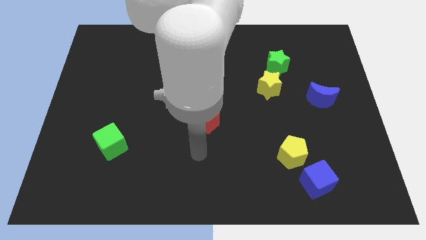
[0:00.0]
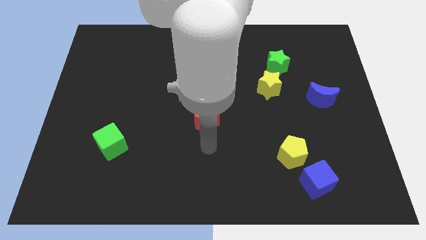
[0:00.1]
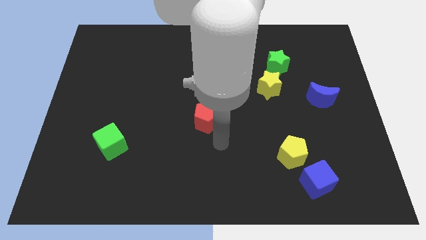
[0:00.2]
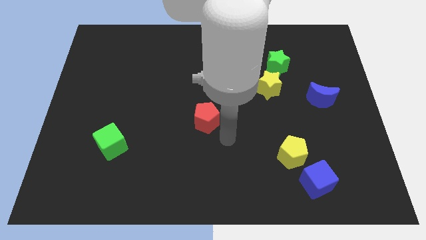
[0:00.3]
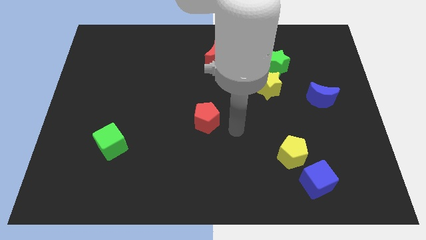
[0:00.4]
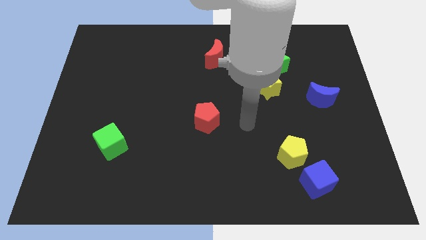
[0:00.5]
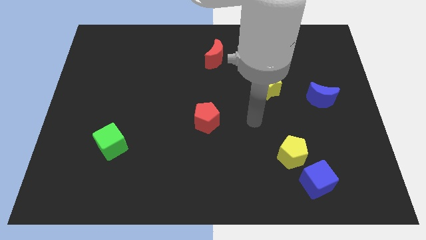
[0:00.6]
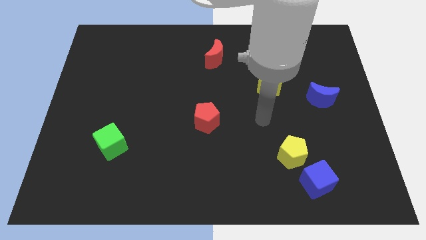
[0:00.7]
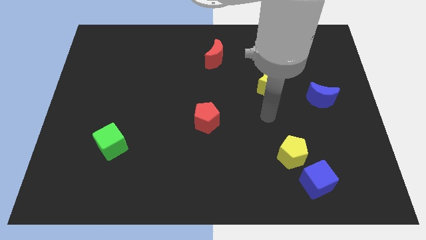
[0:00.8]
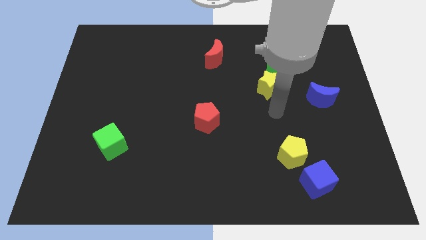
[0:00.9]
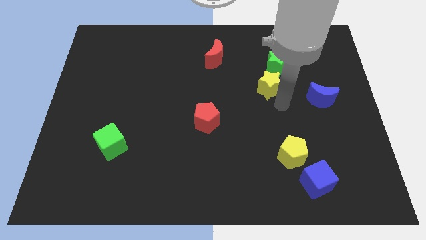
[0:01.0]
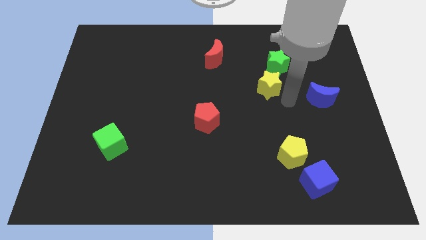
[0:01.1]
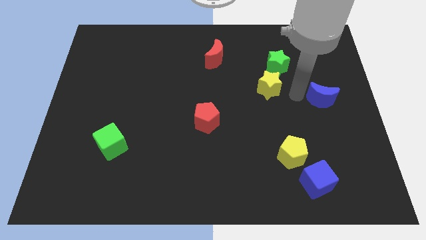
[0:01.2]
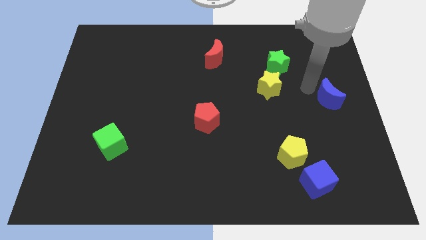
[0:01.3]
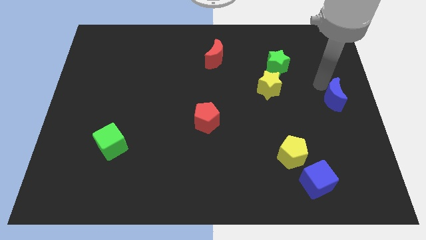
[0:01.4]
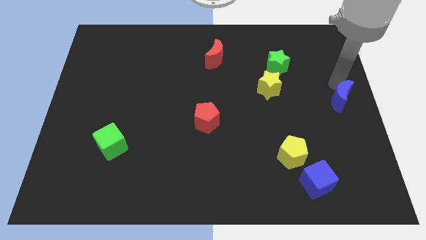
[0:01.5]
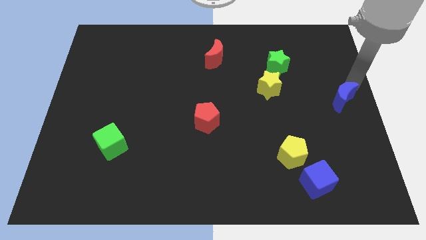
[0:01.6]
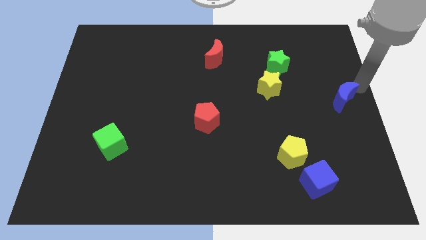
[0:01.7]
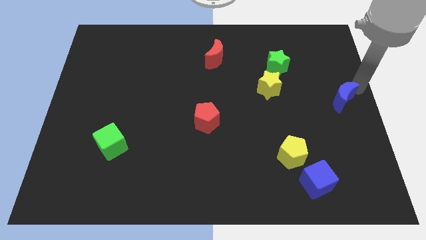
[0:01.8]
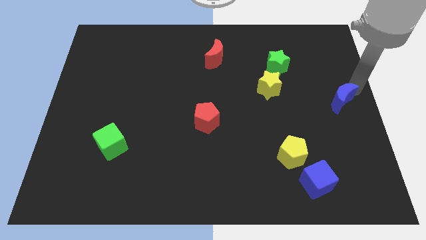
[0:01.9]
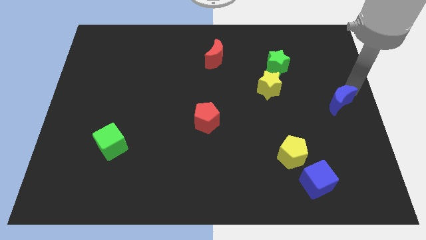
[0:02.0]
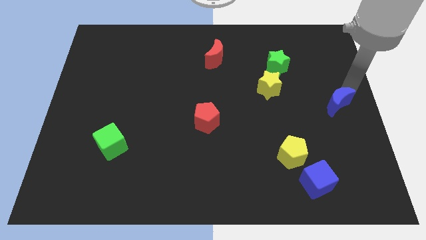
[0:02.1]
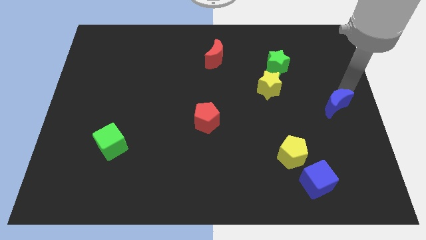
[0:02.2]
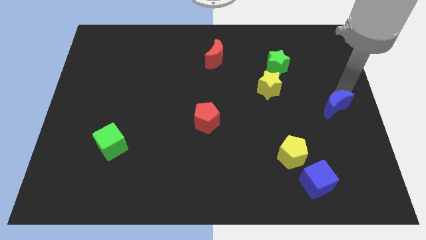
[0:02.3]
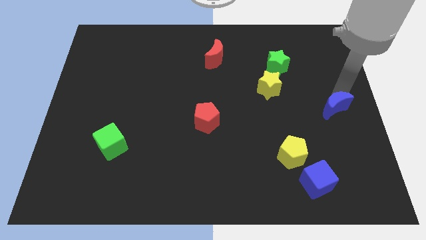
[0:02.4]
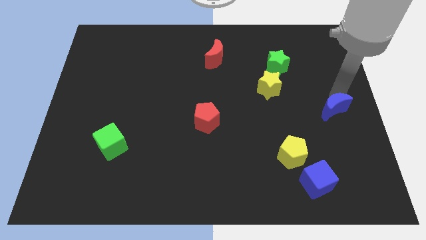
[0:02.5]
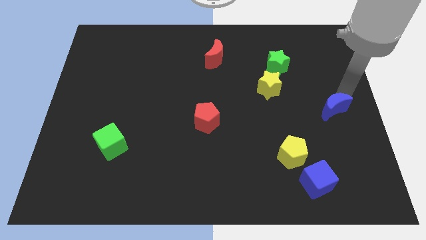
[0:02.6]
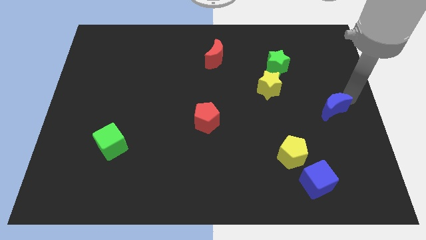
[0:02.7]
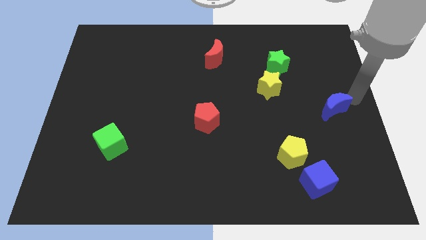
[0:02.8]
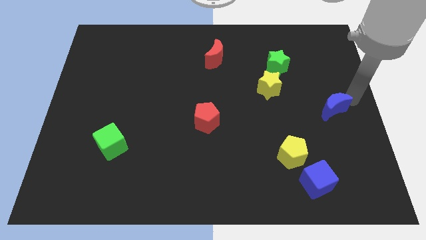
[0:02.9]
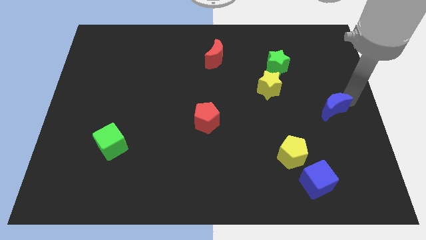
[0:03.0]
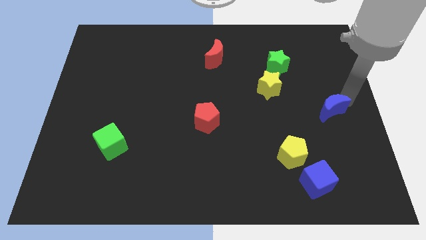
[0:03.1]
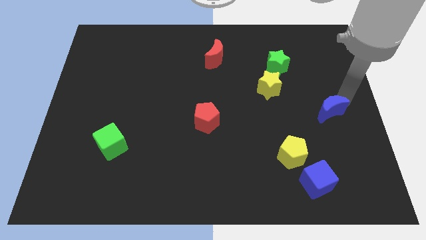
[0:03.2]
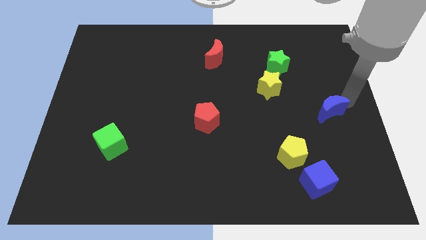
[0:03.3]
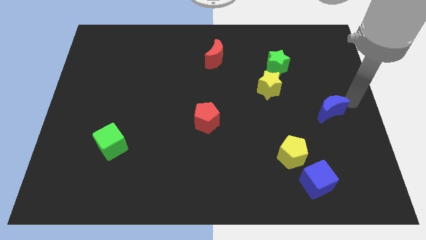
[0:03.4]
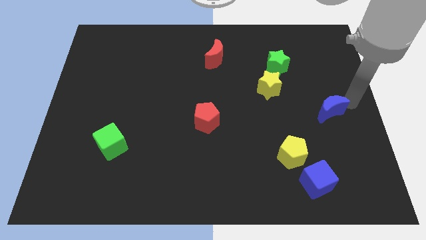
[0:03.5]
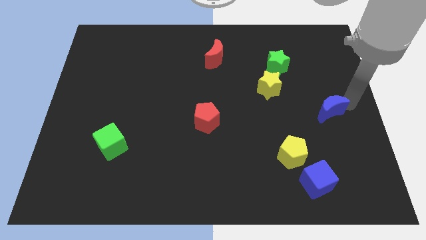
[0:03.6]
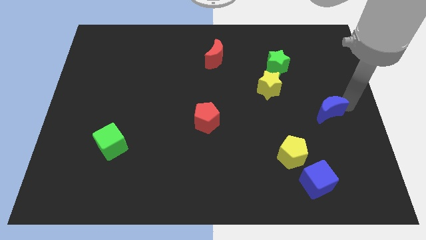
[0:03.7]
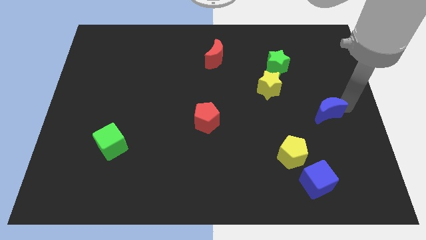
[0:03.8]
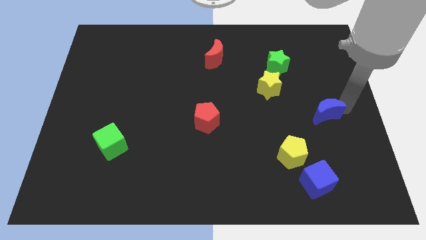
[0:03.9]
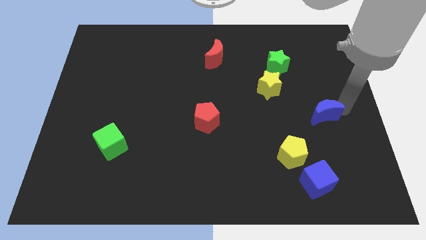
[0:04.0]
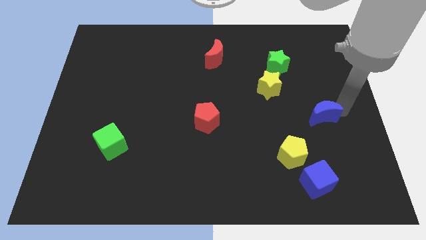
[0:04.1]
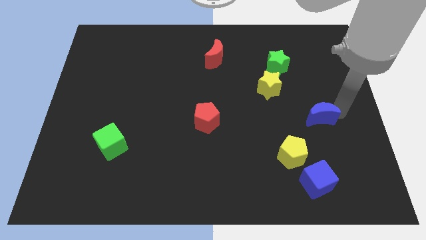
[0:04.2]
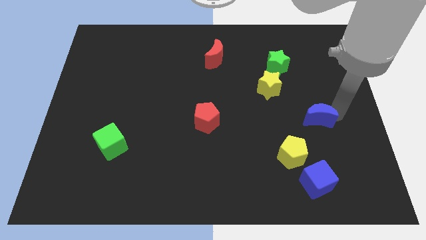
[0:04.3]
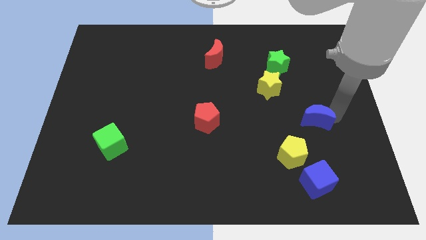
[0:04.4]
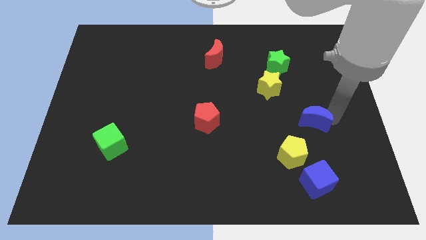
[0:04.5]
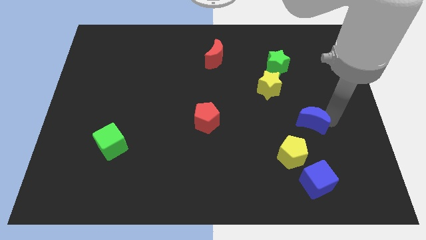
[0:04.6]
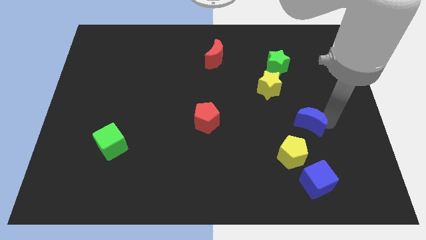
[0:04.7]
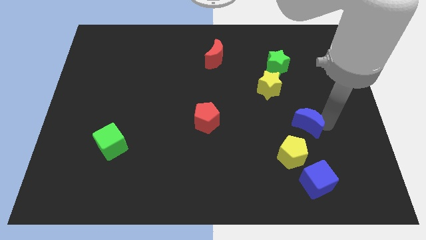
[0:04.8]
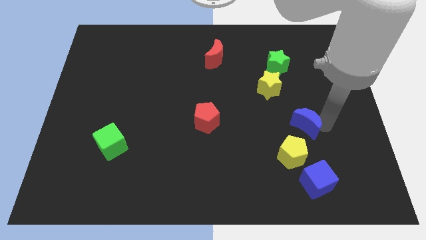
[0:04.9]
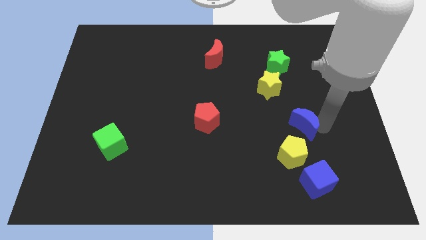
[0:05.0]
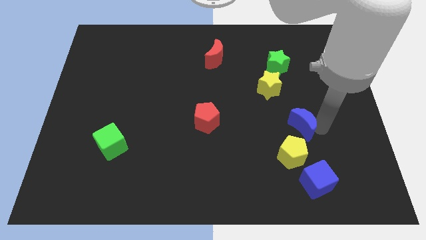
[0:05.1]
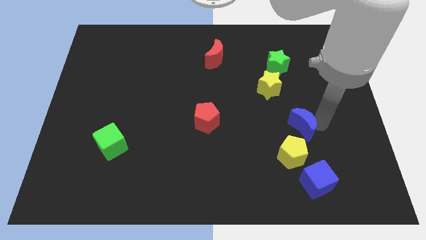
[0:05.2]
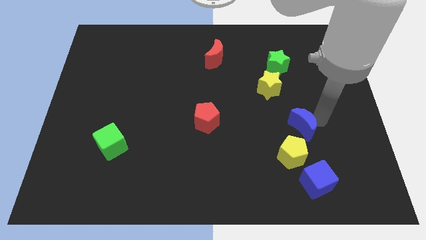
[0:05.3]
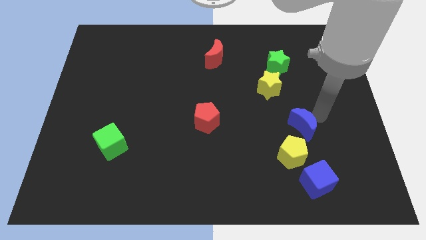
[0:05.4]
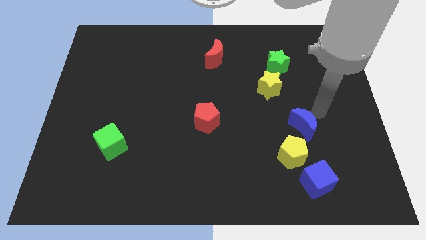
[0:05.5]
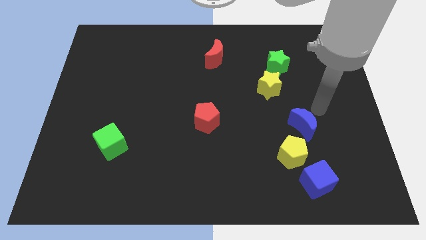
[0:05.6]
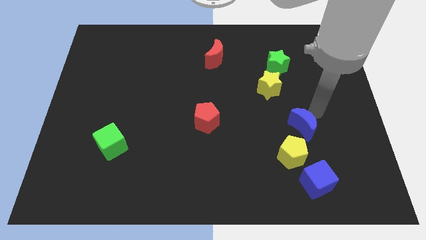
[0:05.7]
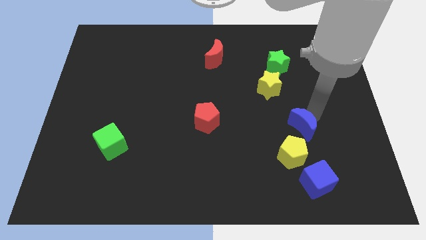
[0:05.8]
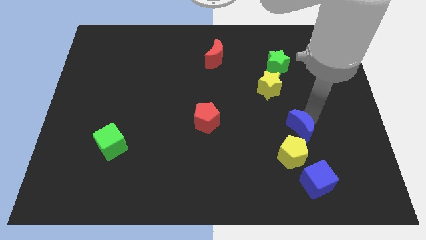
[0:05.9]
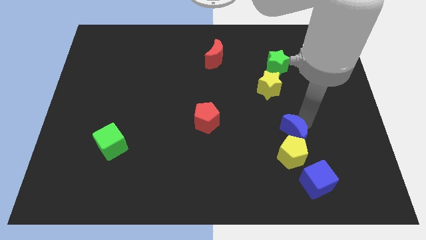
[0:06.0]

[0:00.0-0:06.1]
move the blue moon next to the yellow pentagon

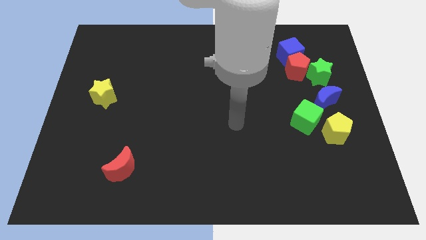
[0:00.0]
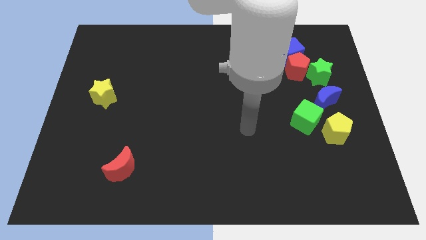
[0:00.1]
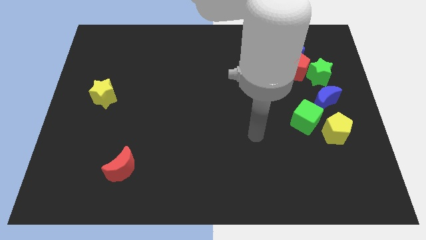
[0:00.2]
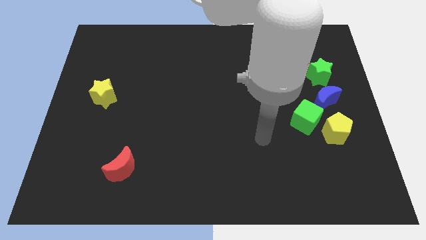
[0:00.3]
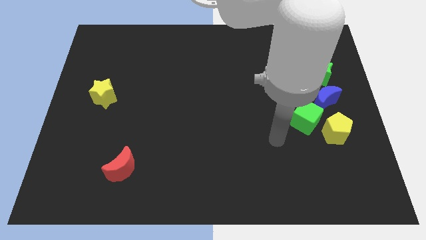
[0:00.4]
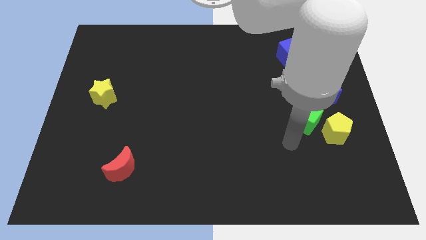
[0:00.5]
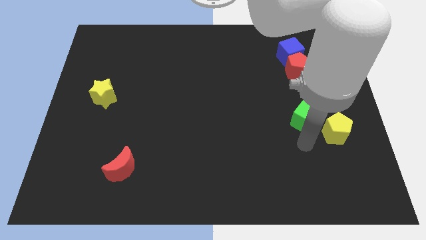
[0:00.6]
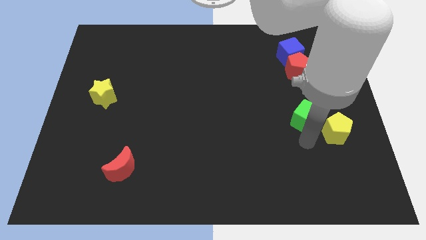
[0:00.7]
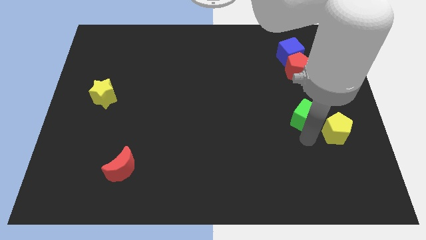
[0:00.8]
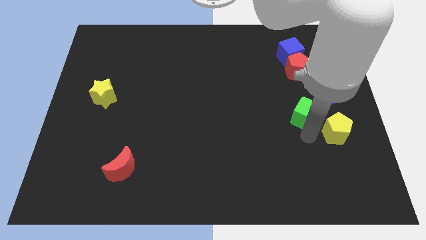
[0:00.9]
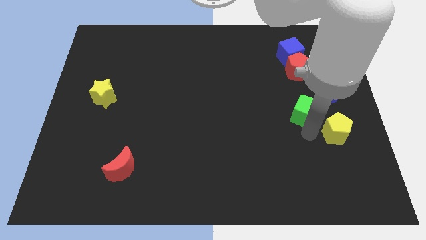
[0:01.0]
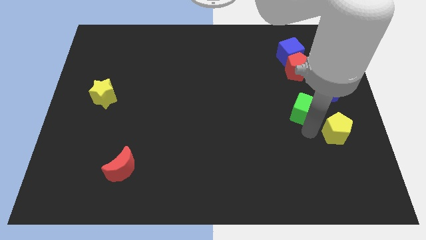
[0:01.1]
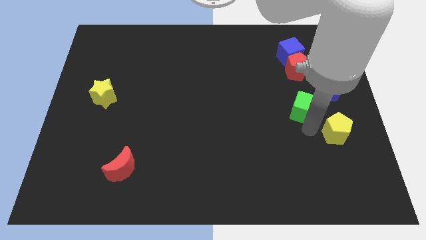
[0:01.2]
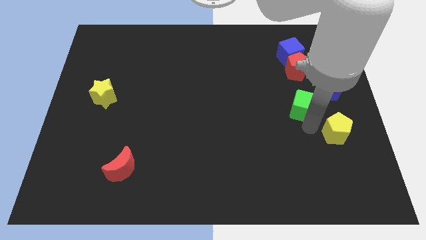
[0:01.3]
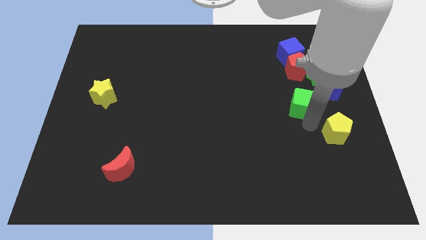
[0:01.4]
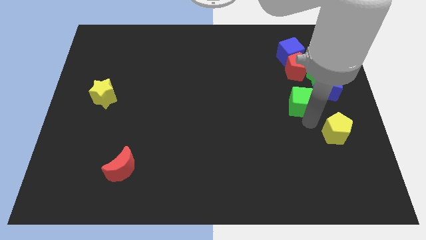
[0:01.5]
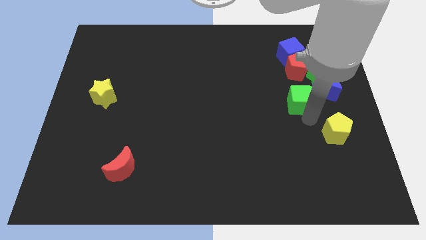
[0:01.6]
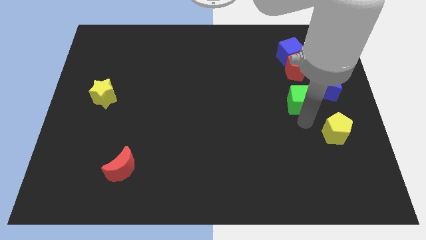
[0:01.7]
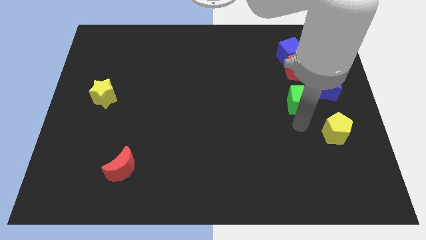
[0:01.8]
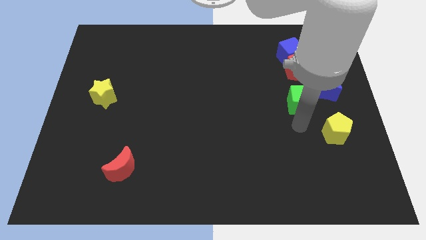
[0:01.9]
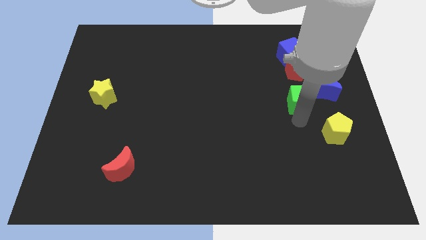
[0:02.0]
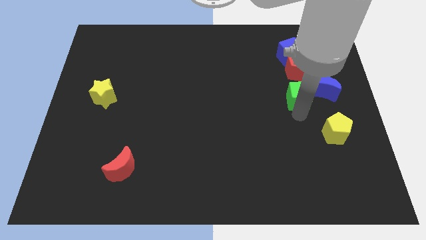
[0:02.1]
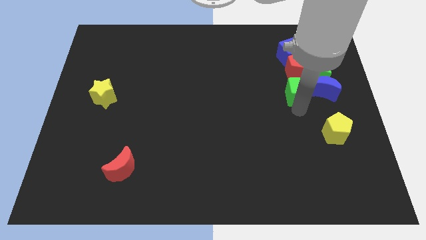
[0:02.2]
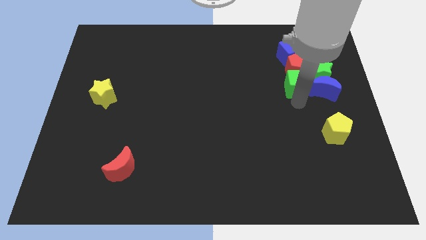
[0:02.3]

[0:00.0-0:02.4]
slide the green cube to the red pentagon

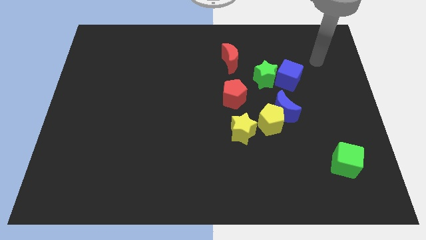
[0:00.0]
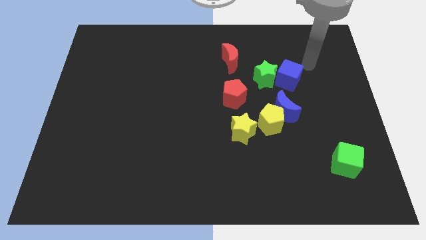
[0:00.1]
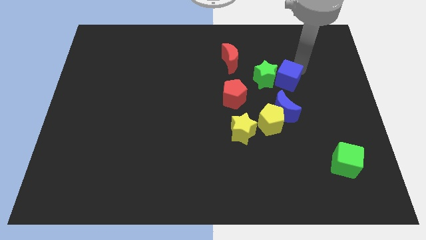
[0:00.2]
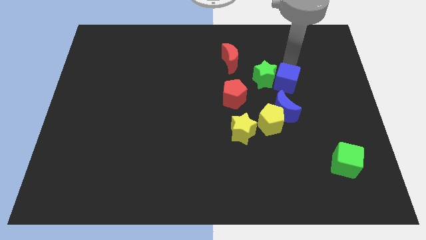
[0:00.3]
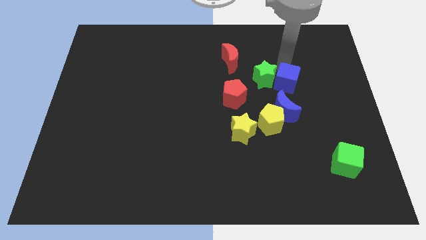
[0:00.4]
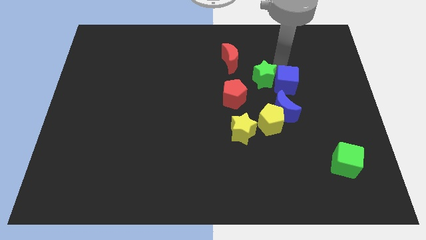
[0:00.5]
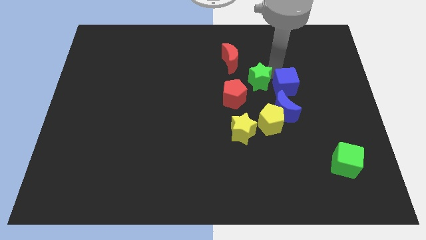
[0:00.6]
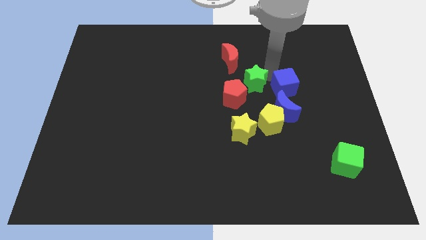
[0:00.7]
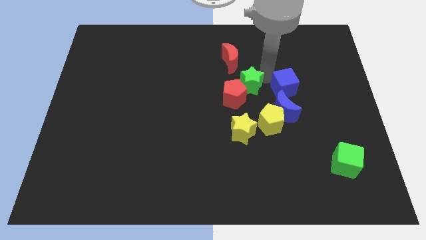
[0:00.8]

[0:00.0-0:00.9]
push the green star towards the red pentagon
